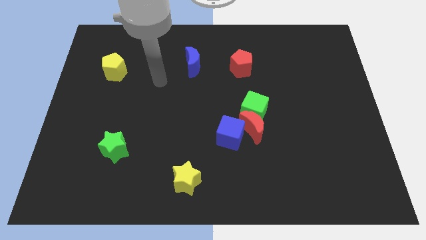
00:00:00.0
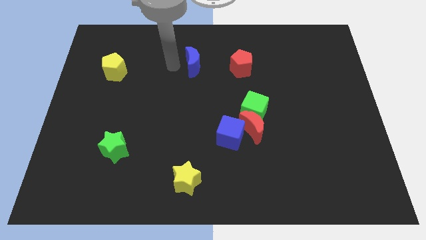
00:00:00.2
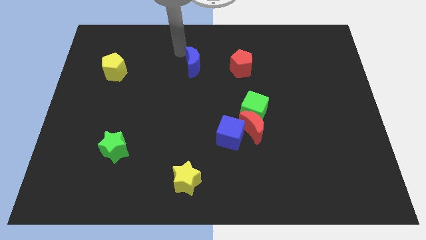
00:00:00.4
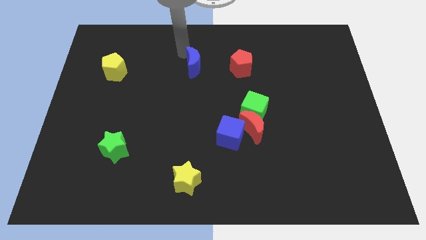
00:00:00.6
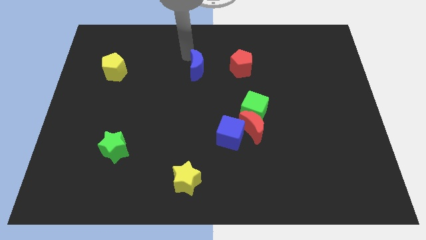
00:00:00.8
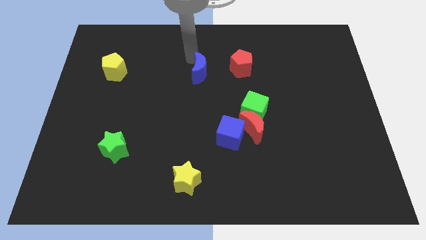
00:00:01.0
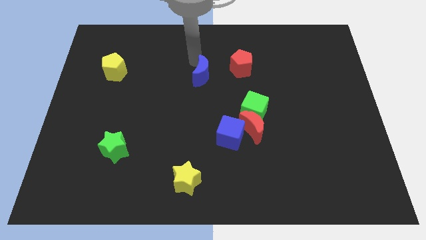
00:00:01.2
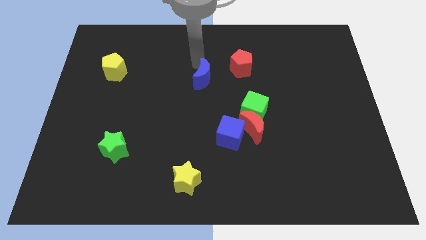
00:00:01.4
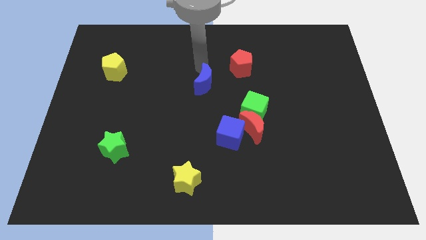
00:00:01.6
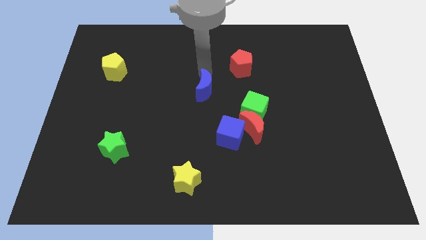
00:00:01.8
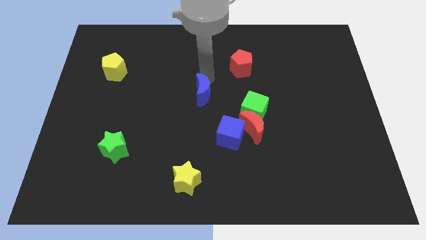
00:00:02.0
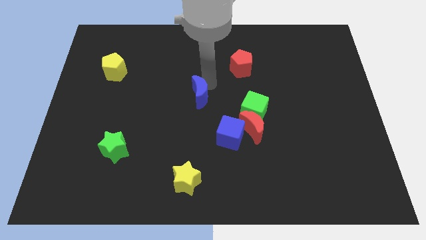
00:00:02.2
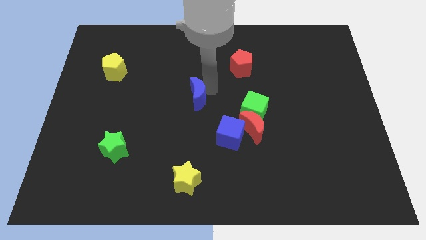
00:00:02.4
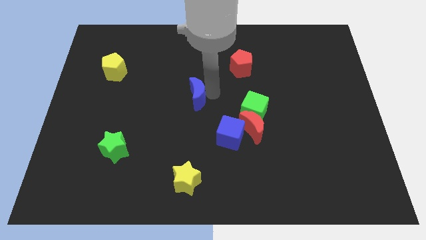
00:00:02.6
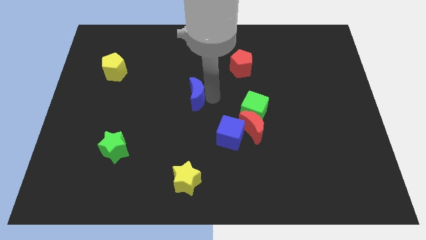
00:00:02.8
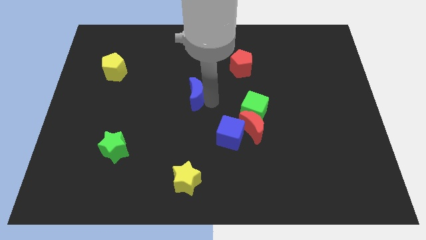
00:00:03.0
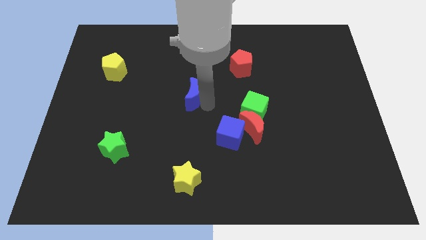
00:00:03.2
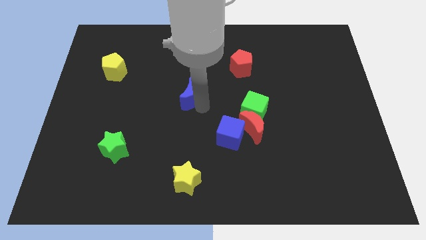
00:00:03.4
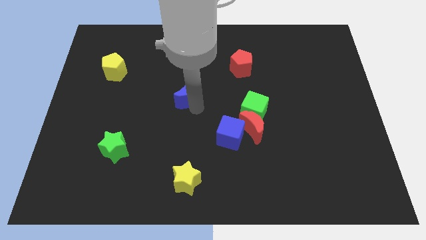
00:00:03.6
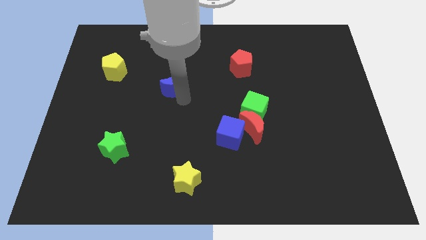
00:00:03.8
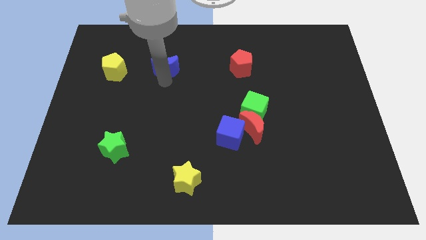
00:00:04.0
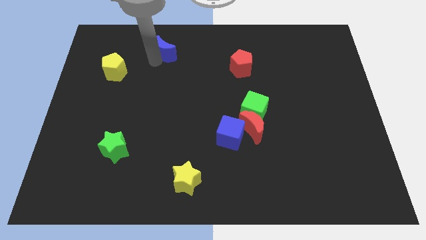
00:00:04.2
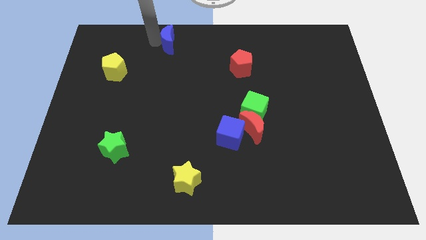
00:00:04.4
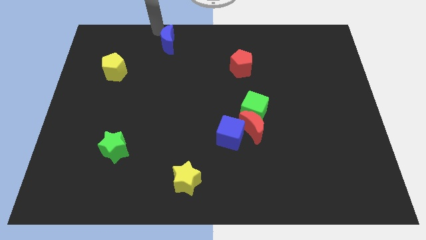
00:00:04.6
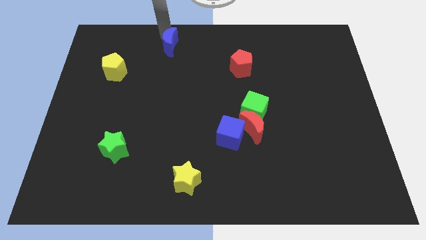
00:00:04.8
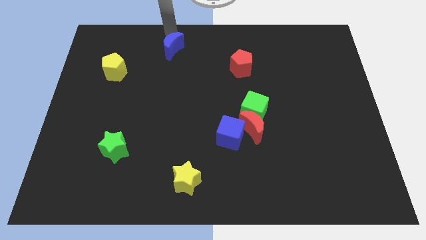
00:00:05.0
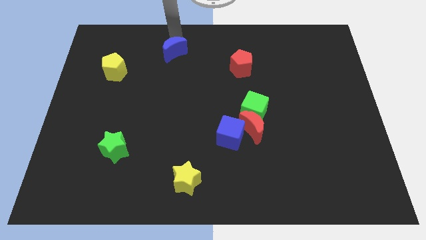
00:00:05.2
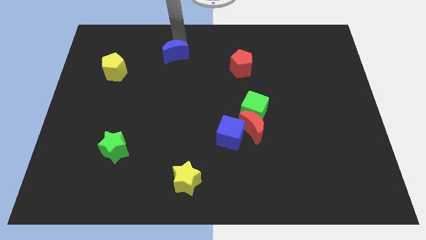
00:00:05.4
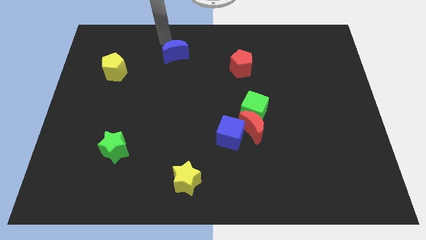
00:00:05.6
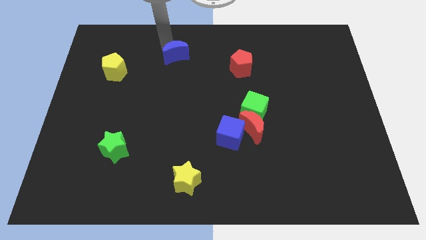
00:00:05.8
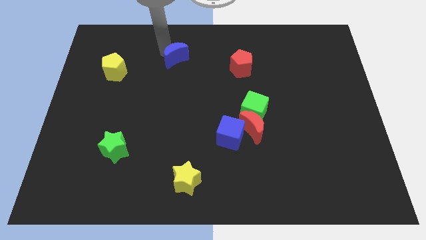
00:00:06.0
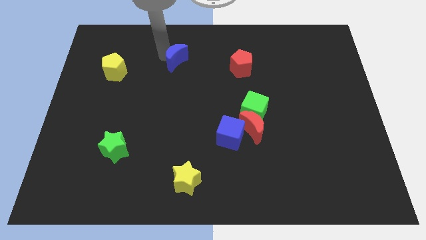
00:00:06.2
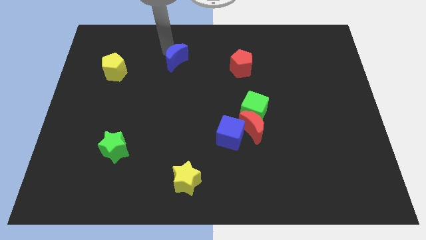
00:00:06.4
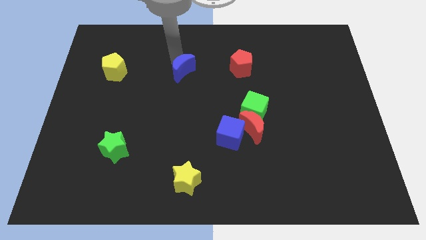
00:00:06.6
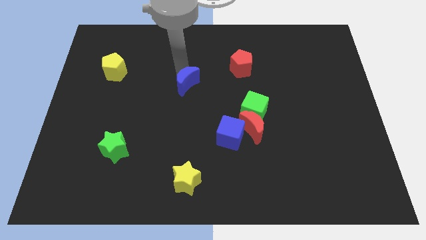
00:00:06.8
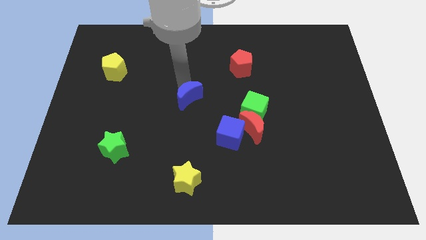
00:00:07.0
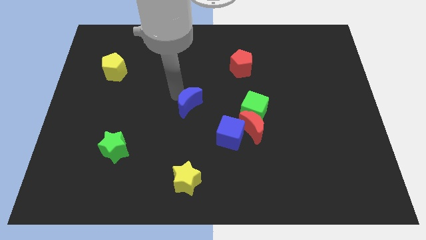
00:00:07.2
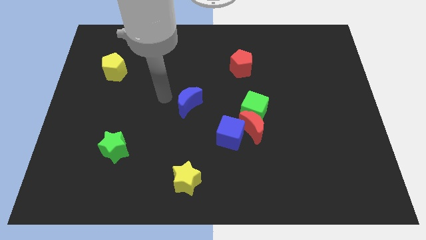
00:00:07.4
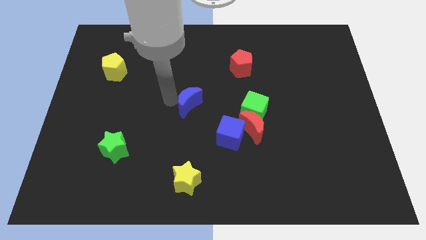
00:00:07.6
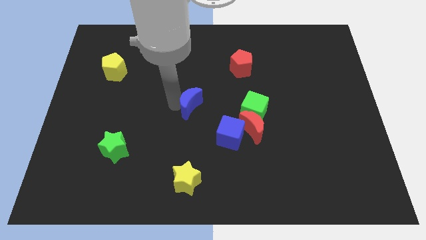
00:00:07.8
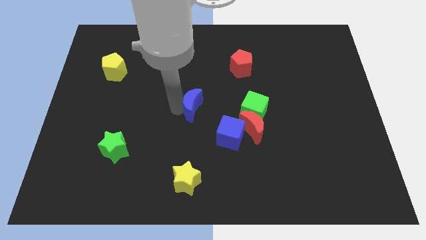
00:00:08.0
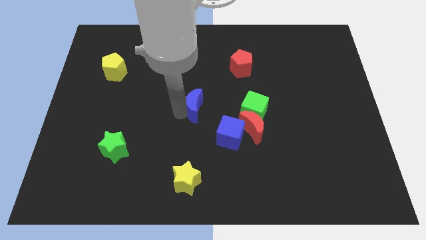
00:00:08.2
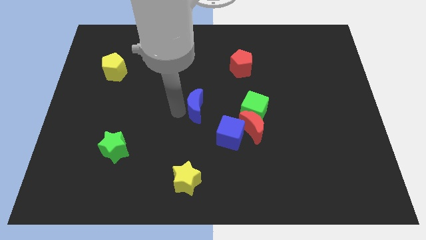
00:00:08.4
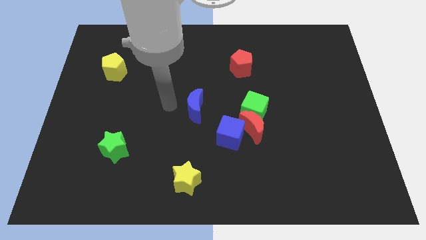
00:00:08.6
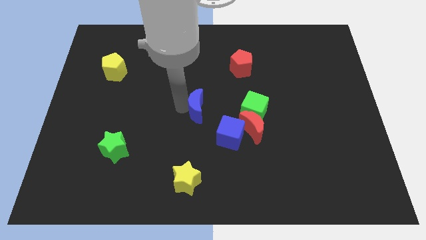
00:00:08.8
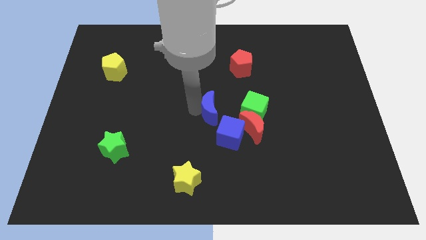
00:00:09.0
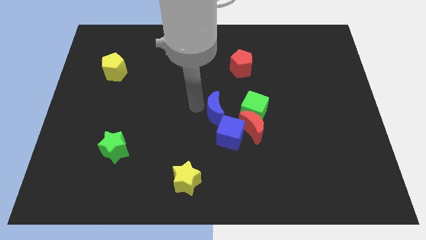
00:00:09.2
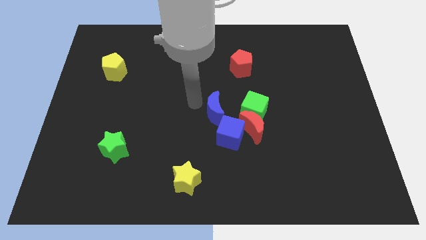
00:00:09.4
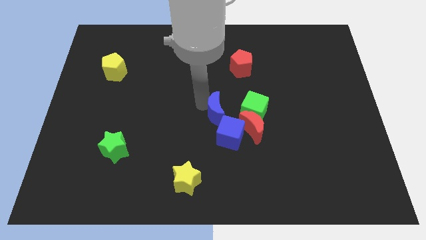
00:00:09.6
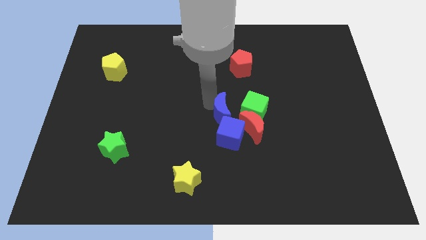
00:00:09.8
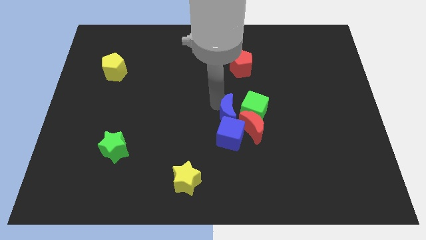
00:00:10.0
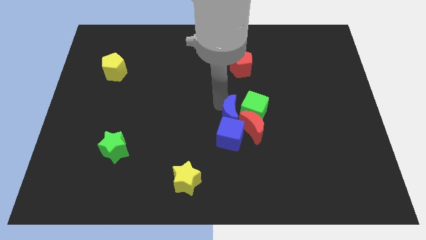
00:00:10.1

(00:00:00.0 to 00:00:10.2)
put the blue moon to the red moon

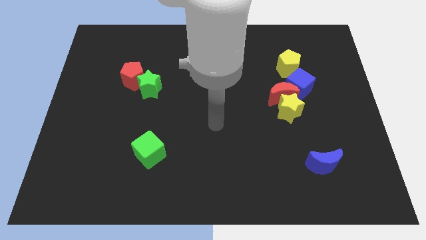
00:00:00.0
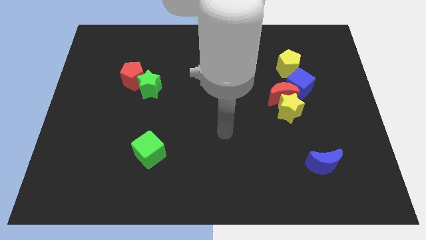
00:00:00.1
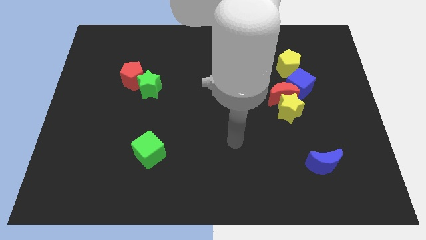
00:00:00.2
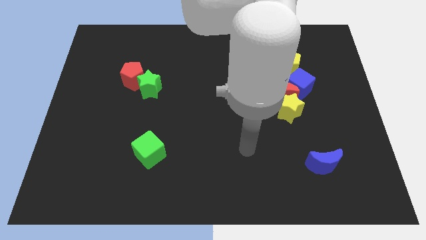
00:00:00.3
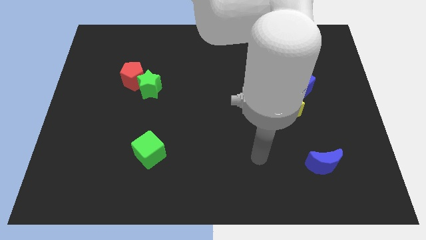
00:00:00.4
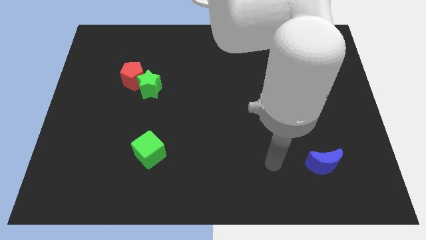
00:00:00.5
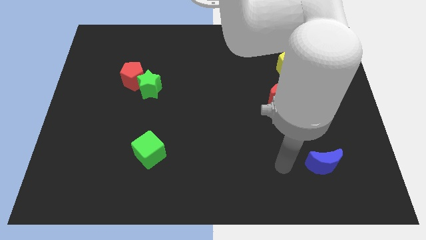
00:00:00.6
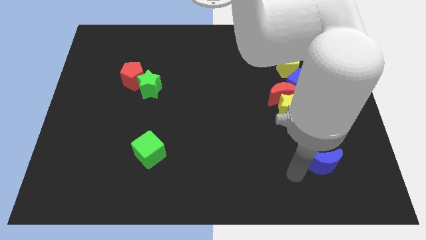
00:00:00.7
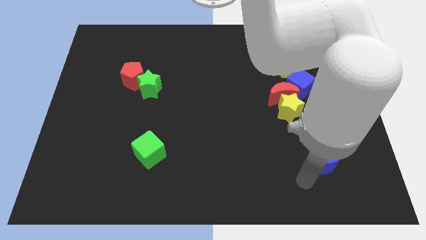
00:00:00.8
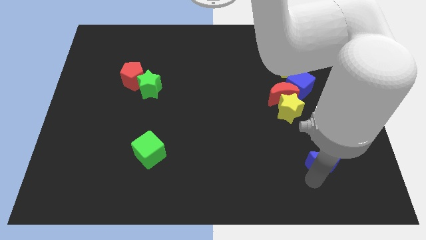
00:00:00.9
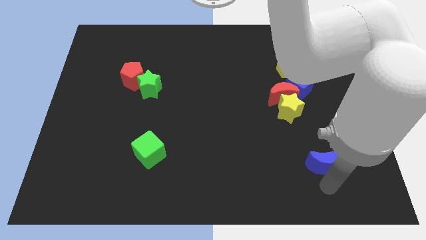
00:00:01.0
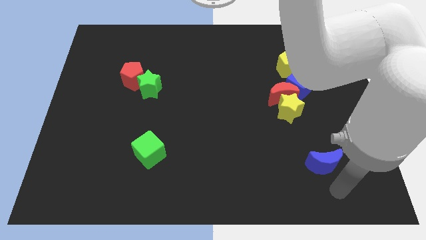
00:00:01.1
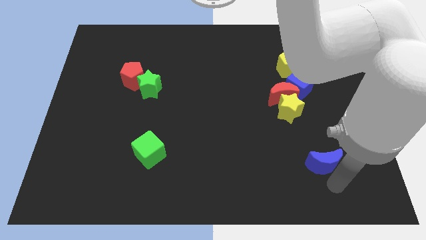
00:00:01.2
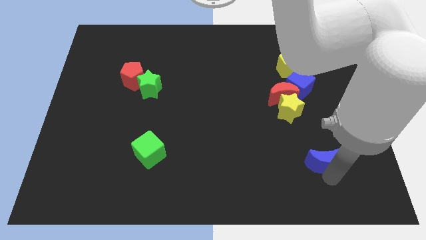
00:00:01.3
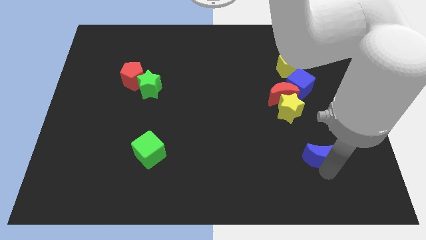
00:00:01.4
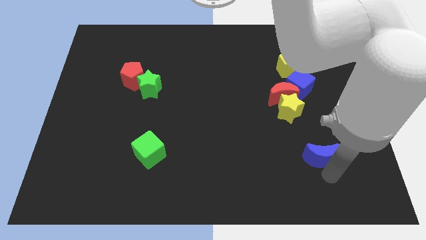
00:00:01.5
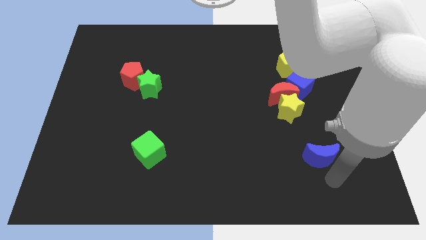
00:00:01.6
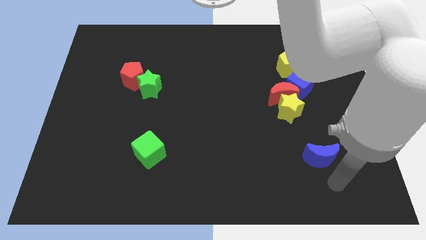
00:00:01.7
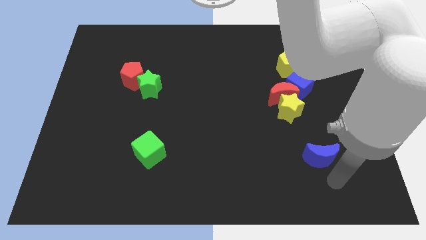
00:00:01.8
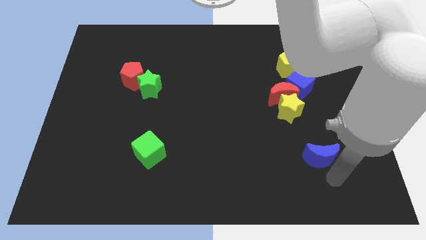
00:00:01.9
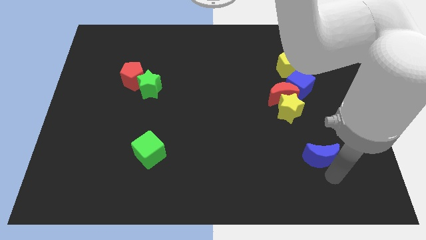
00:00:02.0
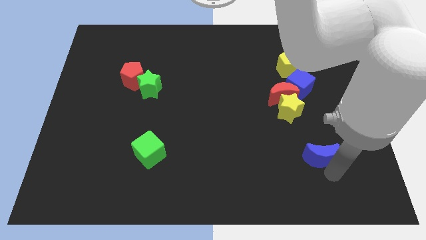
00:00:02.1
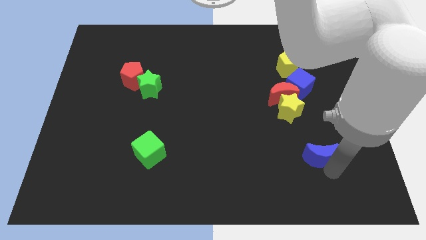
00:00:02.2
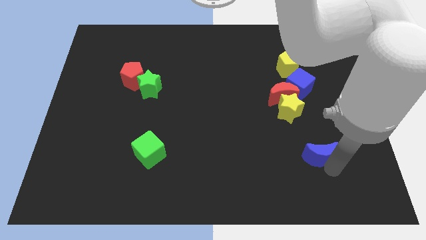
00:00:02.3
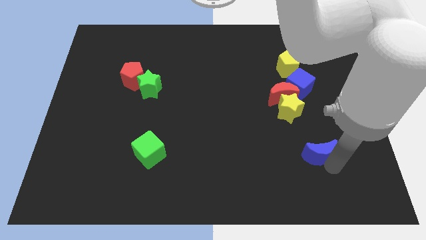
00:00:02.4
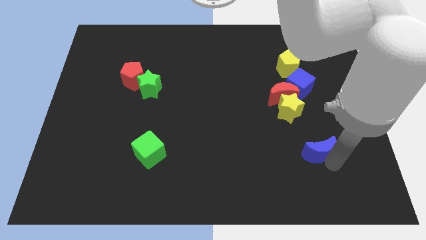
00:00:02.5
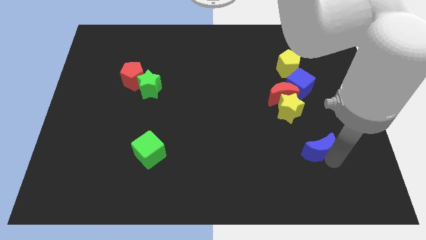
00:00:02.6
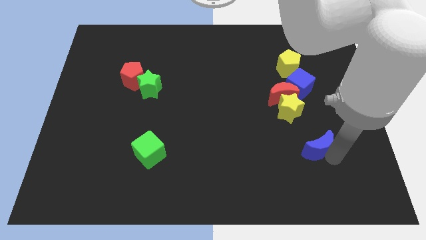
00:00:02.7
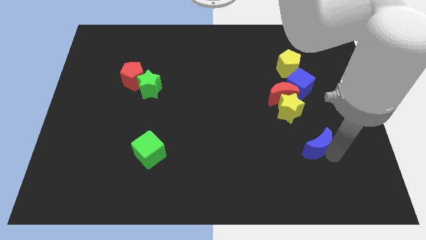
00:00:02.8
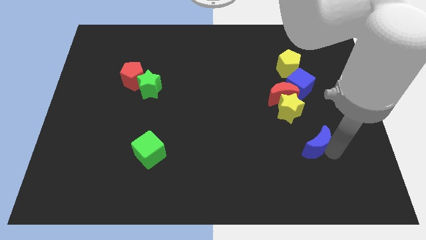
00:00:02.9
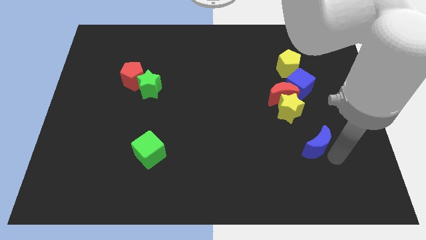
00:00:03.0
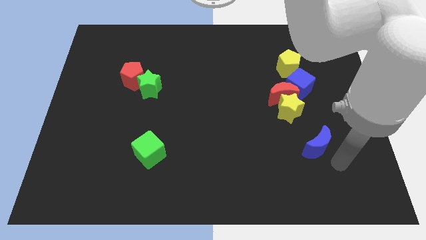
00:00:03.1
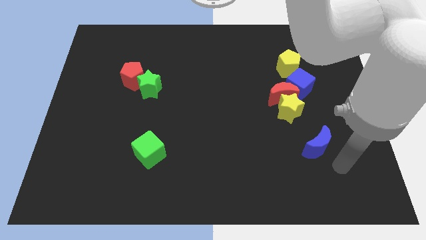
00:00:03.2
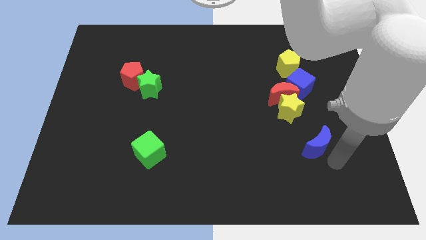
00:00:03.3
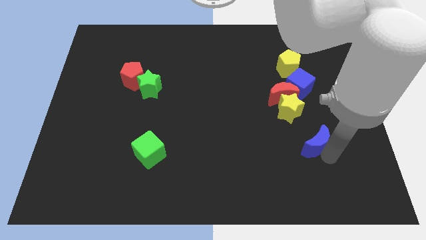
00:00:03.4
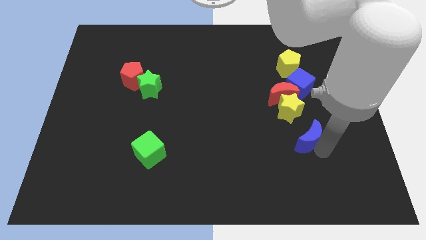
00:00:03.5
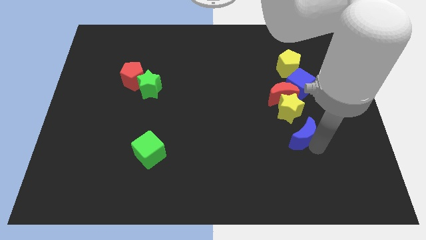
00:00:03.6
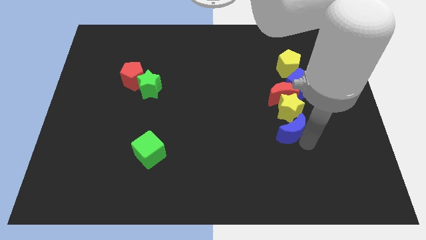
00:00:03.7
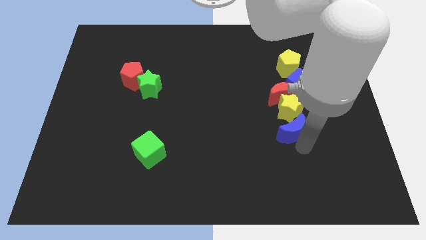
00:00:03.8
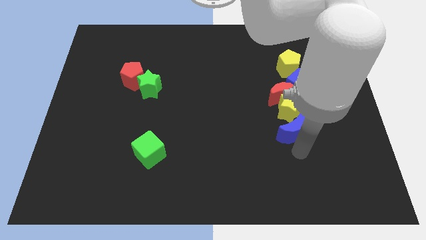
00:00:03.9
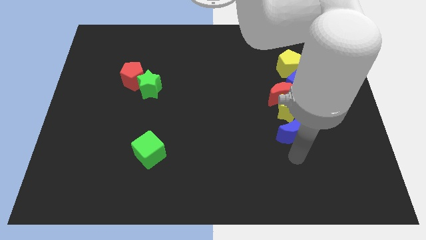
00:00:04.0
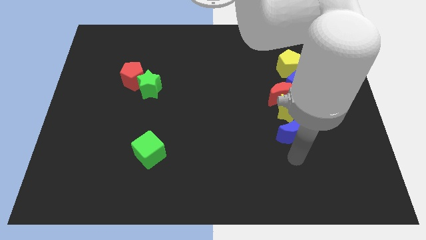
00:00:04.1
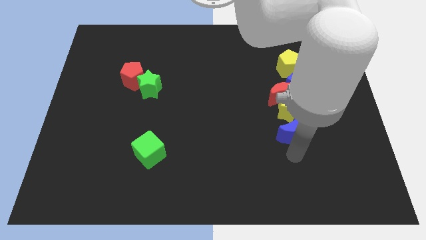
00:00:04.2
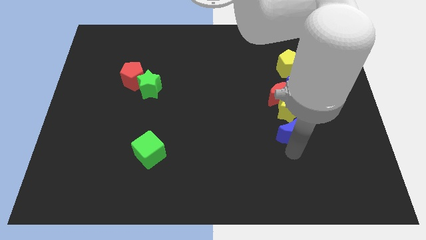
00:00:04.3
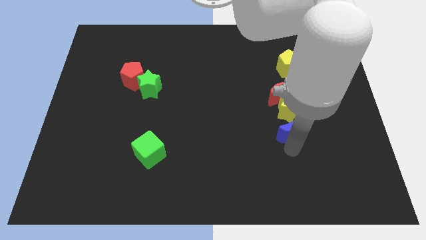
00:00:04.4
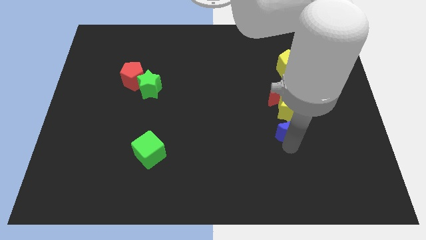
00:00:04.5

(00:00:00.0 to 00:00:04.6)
slide the blue moon towards the yellow star
